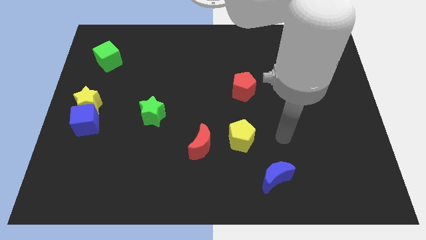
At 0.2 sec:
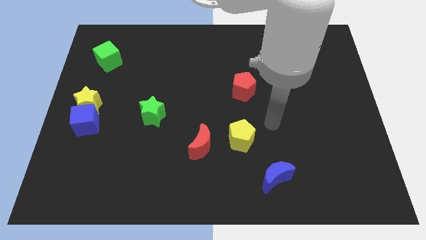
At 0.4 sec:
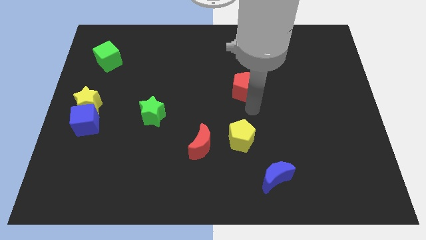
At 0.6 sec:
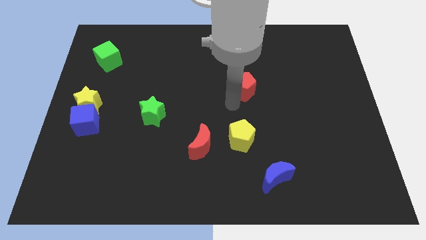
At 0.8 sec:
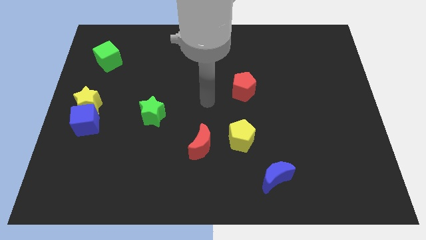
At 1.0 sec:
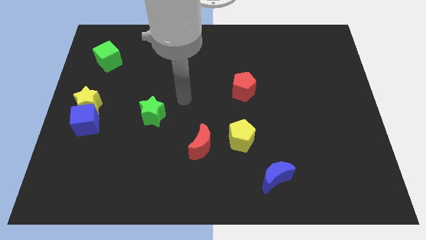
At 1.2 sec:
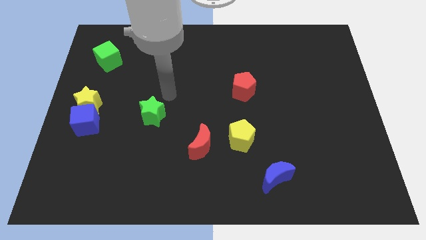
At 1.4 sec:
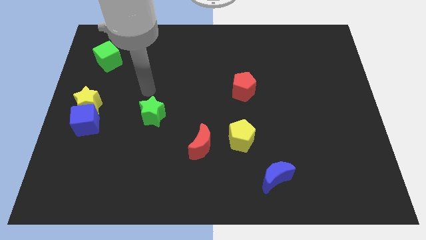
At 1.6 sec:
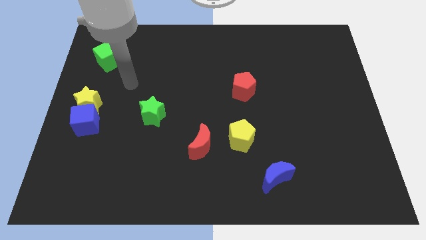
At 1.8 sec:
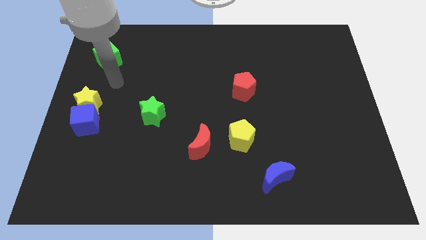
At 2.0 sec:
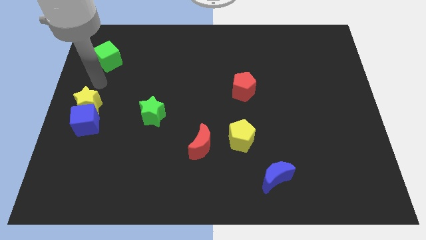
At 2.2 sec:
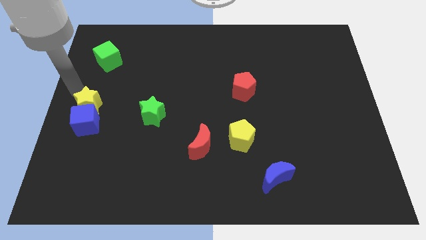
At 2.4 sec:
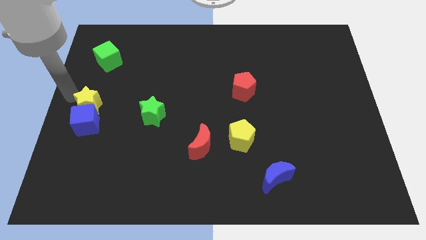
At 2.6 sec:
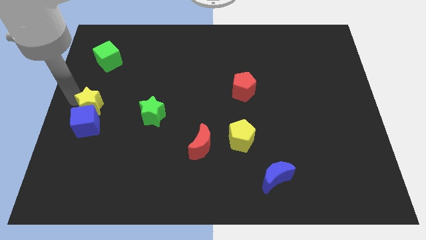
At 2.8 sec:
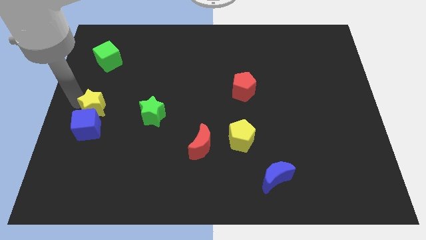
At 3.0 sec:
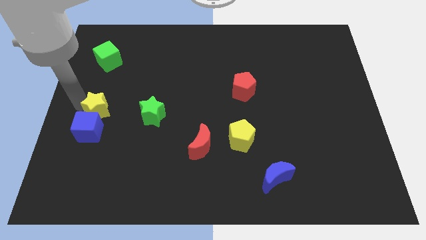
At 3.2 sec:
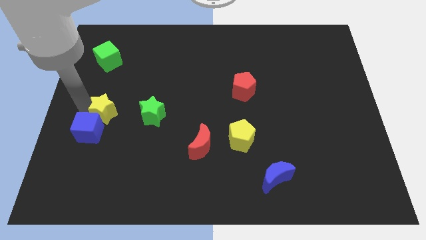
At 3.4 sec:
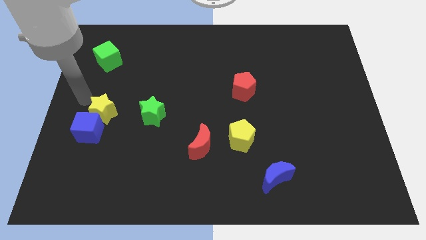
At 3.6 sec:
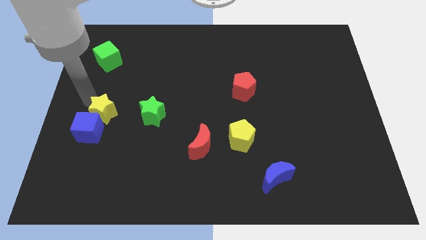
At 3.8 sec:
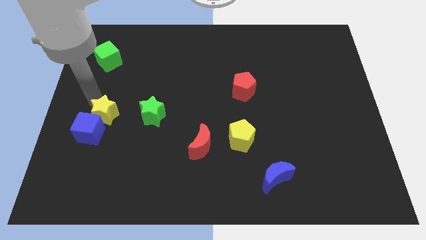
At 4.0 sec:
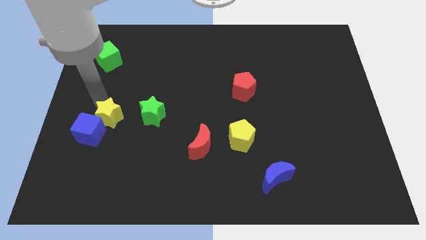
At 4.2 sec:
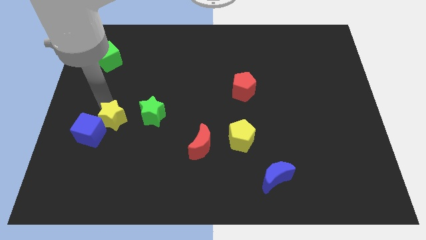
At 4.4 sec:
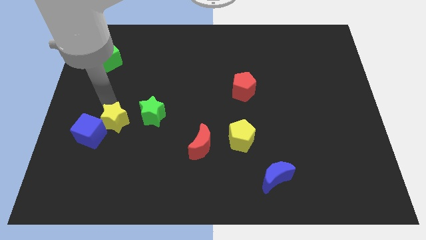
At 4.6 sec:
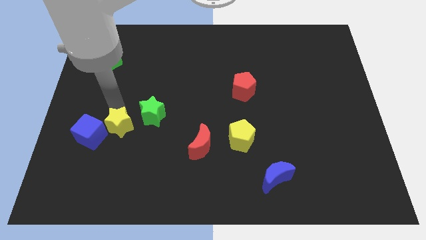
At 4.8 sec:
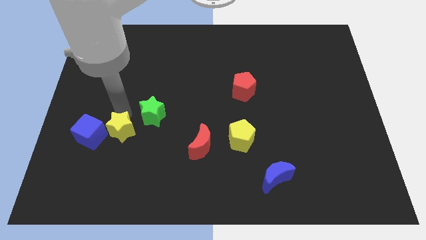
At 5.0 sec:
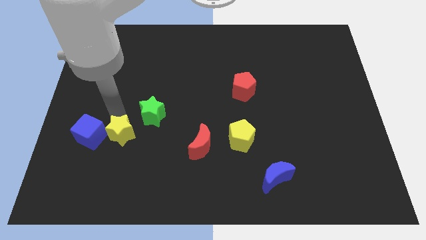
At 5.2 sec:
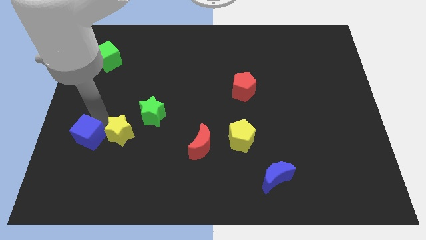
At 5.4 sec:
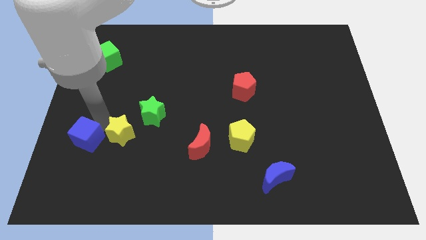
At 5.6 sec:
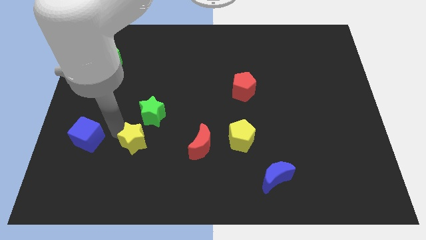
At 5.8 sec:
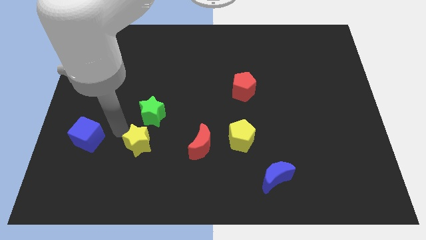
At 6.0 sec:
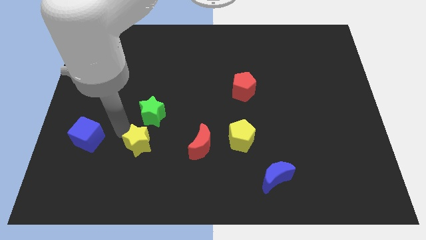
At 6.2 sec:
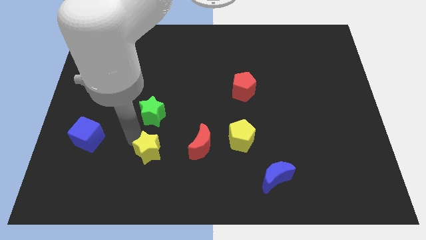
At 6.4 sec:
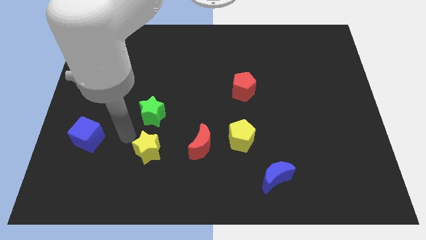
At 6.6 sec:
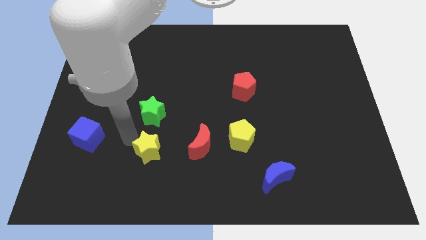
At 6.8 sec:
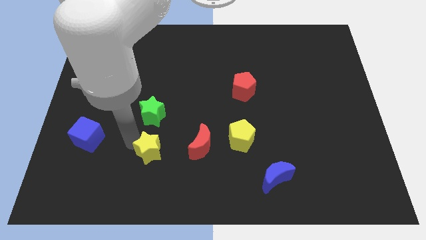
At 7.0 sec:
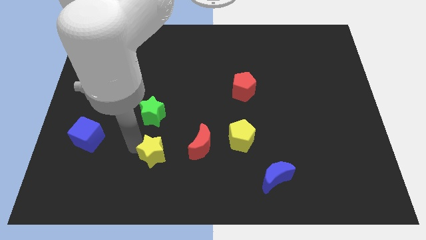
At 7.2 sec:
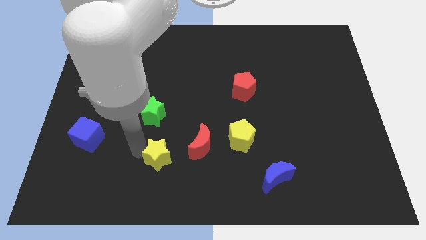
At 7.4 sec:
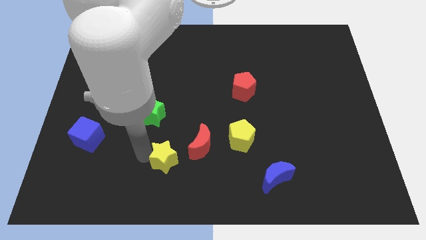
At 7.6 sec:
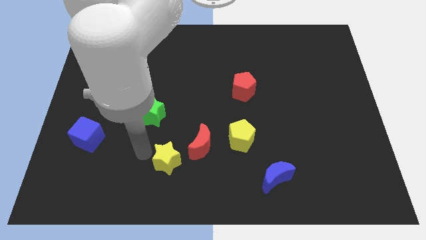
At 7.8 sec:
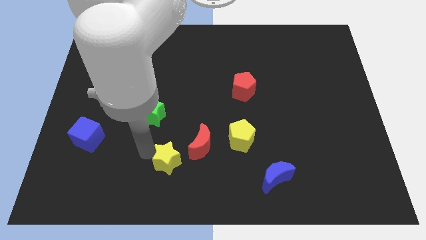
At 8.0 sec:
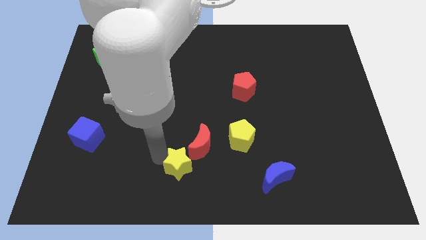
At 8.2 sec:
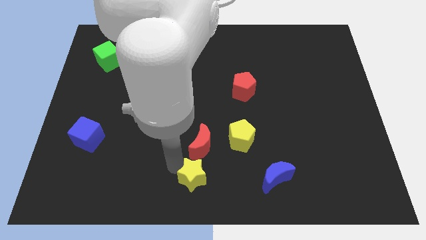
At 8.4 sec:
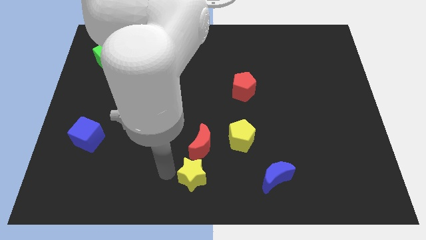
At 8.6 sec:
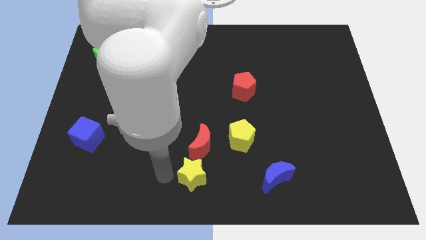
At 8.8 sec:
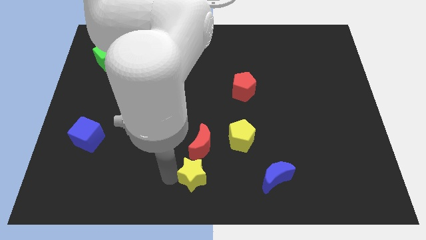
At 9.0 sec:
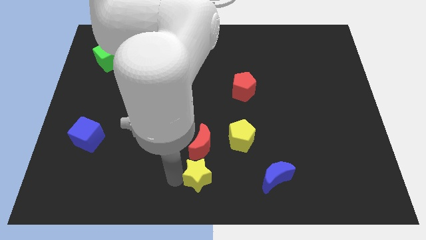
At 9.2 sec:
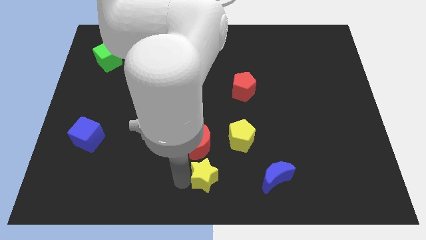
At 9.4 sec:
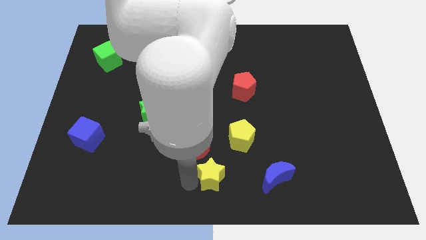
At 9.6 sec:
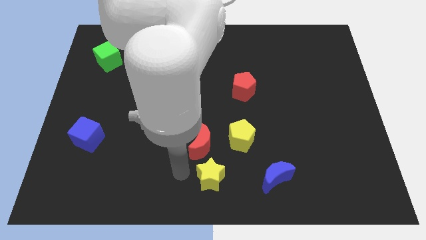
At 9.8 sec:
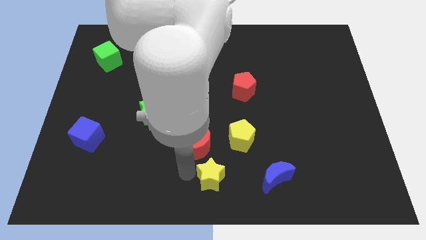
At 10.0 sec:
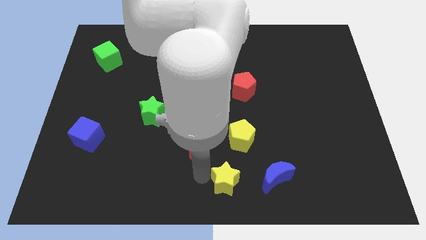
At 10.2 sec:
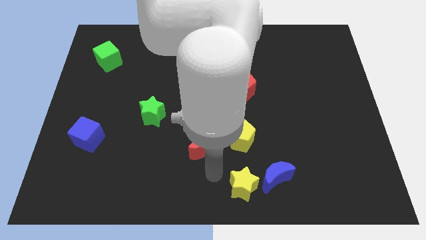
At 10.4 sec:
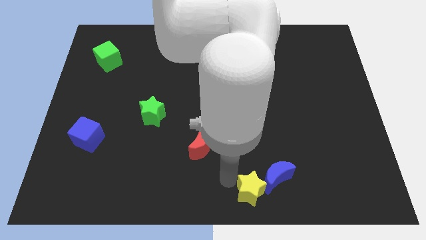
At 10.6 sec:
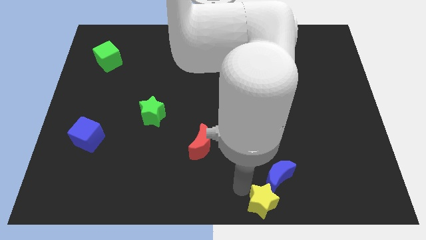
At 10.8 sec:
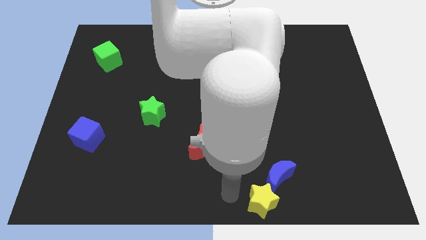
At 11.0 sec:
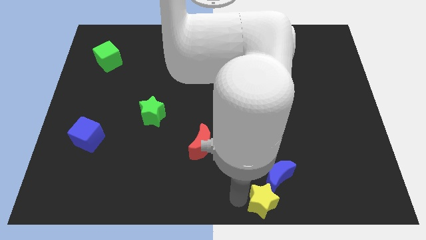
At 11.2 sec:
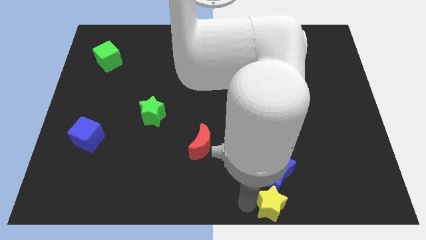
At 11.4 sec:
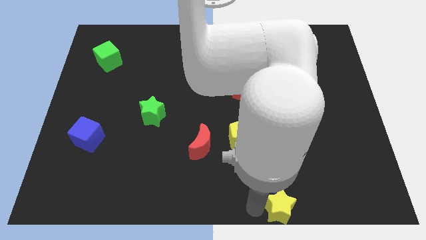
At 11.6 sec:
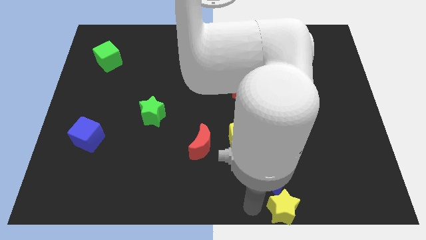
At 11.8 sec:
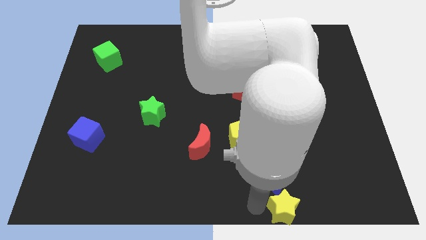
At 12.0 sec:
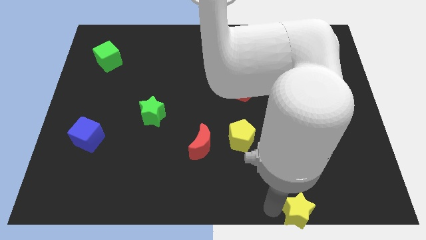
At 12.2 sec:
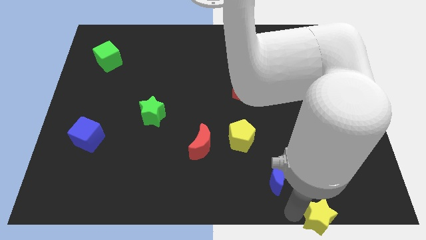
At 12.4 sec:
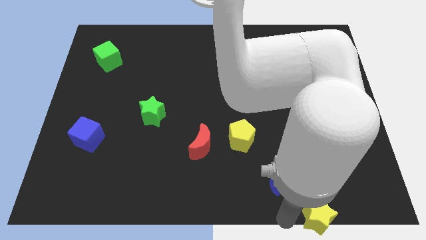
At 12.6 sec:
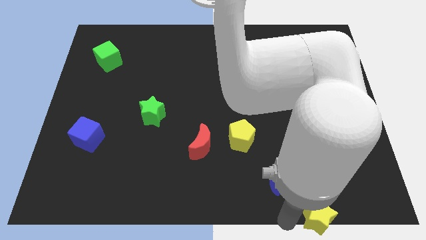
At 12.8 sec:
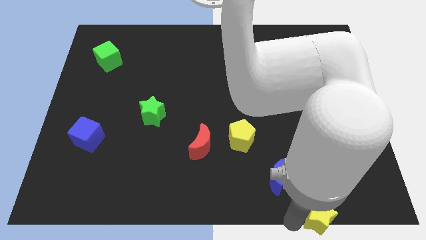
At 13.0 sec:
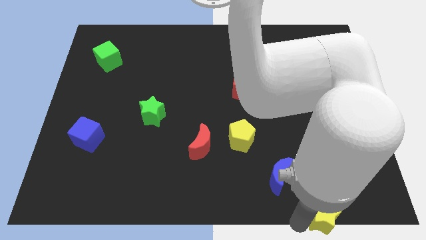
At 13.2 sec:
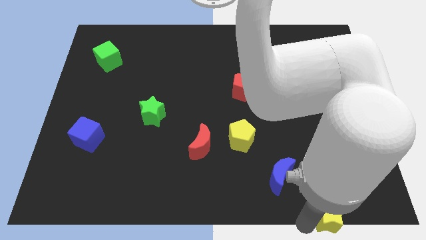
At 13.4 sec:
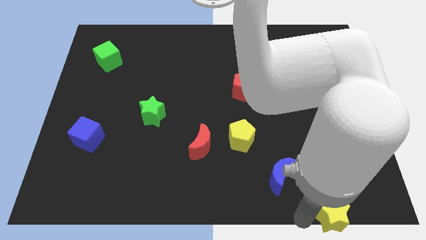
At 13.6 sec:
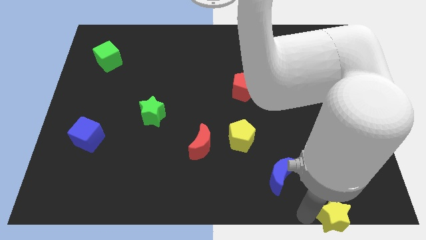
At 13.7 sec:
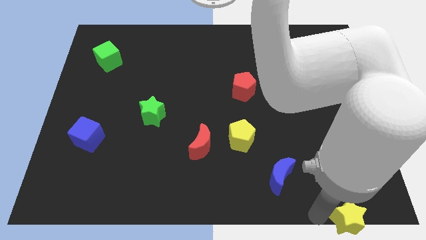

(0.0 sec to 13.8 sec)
put the yellow star to the bottom right
